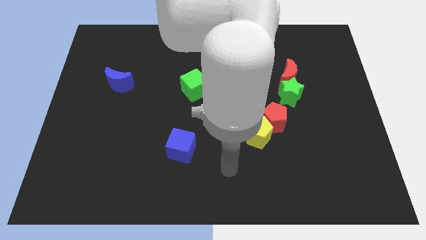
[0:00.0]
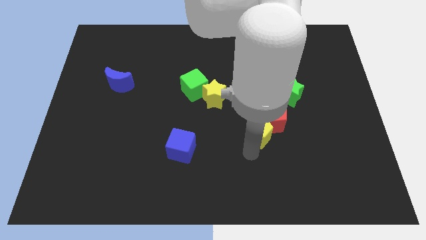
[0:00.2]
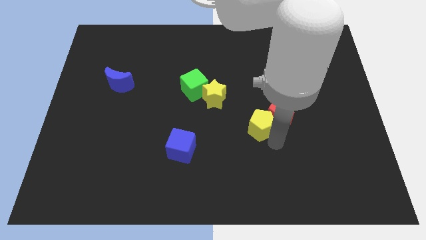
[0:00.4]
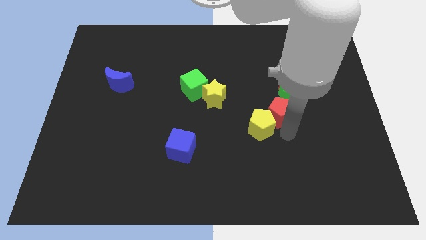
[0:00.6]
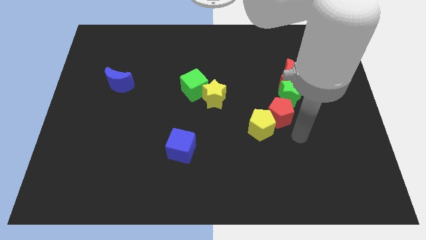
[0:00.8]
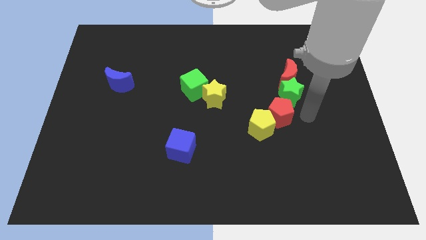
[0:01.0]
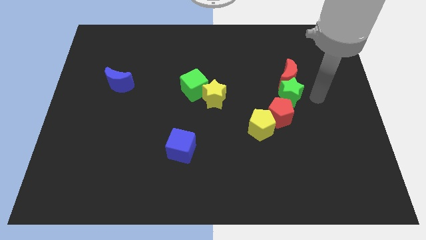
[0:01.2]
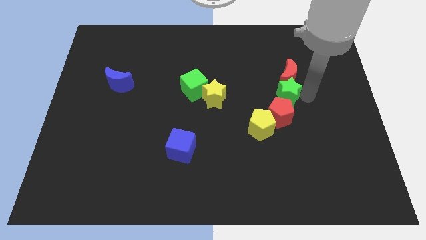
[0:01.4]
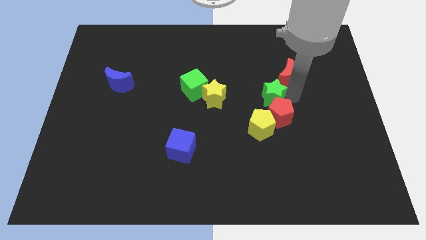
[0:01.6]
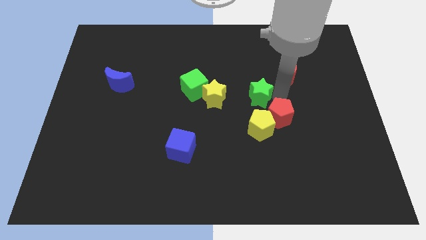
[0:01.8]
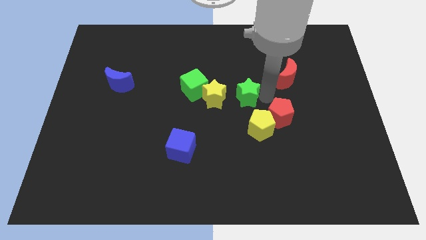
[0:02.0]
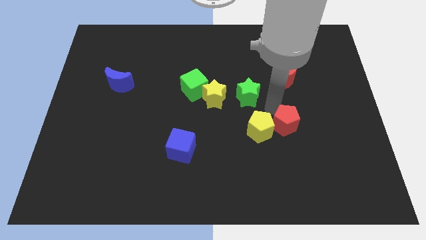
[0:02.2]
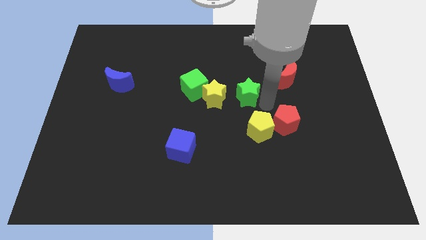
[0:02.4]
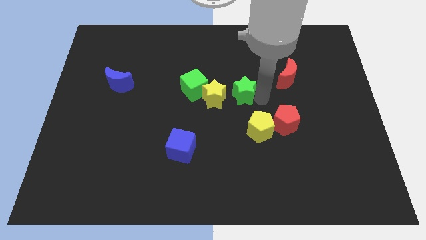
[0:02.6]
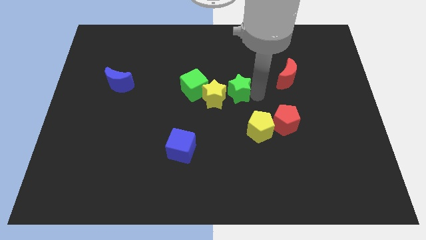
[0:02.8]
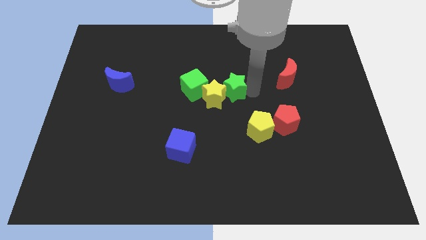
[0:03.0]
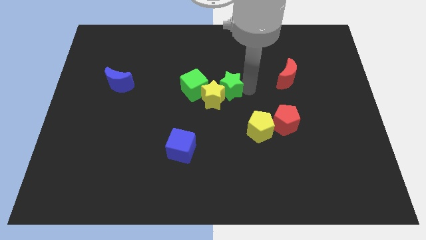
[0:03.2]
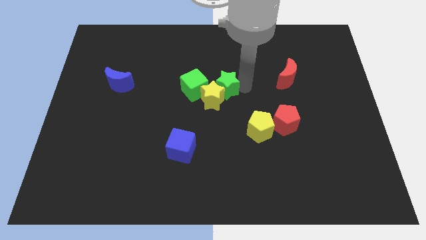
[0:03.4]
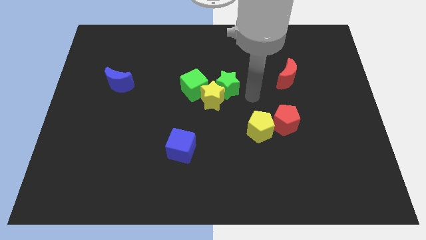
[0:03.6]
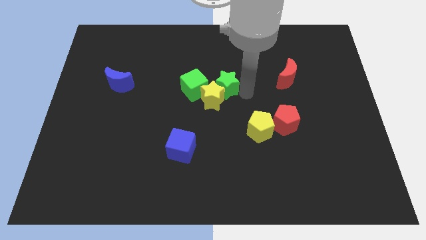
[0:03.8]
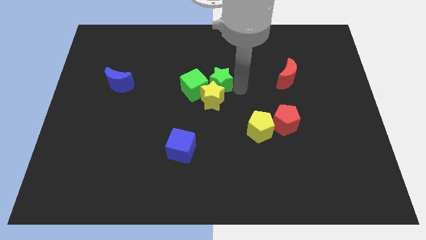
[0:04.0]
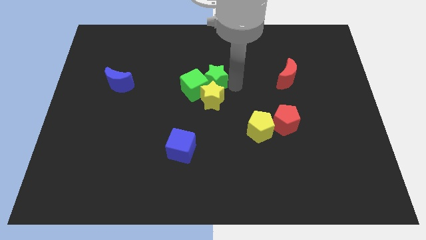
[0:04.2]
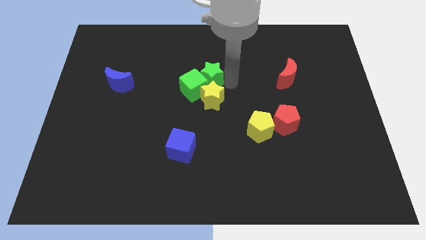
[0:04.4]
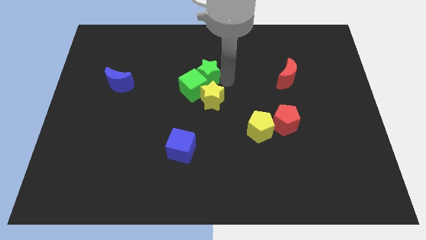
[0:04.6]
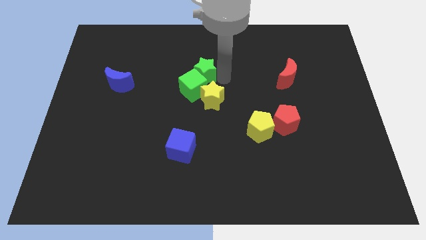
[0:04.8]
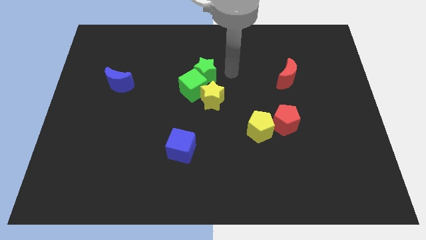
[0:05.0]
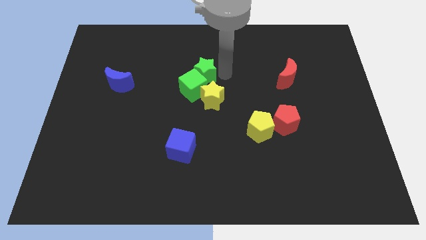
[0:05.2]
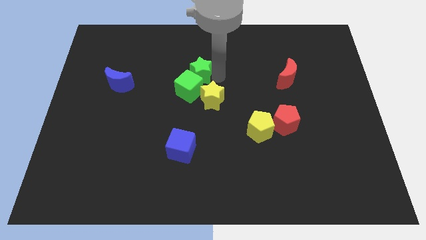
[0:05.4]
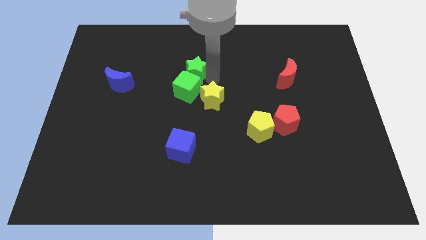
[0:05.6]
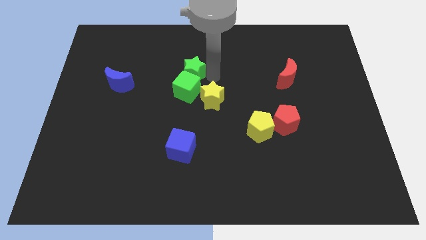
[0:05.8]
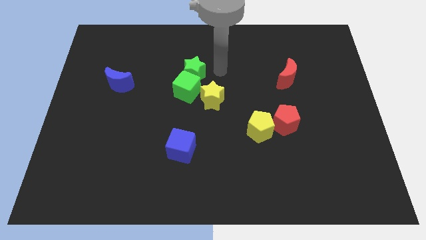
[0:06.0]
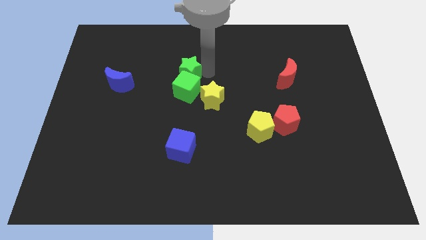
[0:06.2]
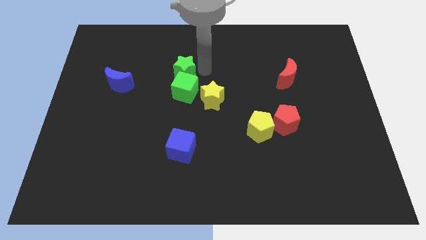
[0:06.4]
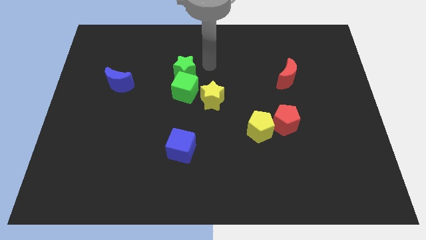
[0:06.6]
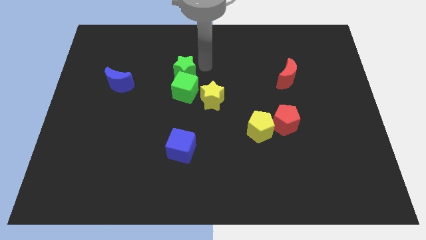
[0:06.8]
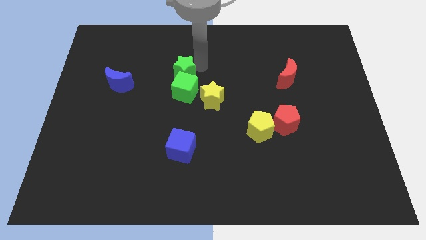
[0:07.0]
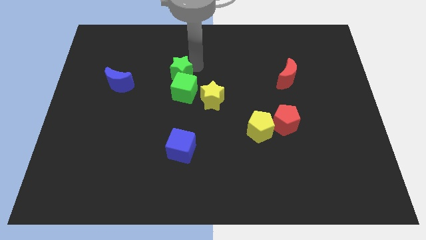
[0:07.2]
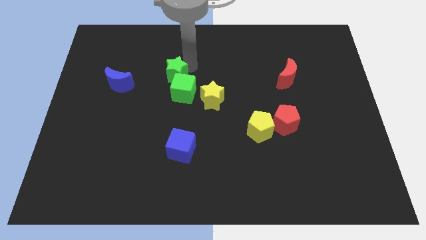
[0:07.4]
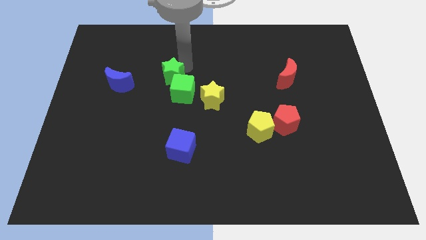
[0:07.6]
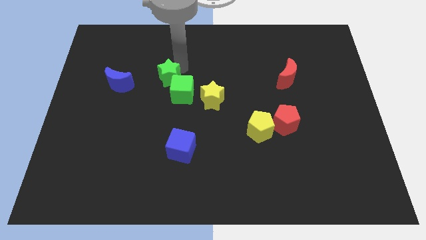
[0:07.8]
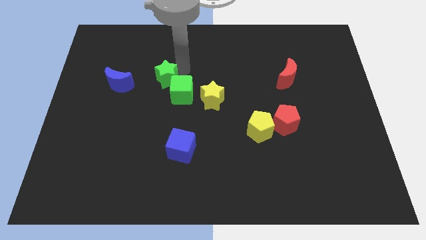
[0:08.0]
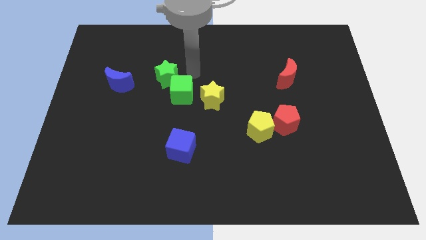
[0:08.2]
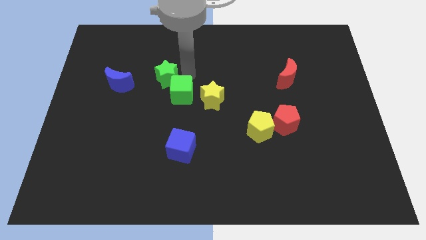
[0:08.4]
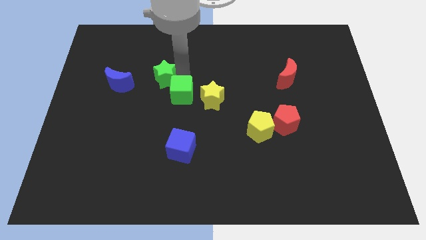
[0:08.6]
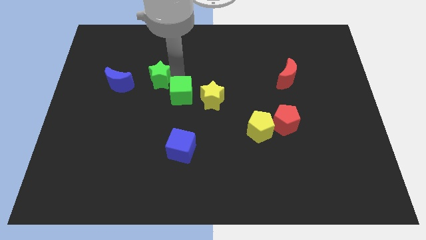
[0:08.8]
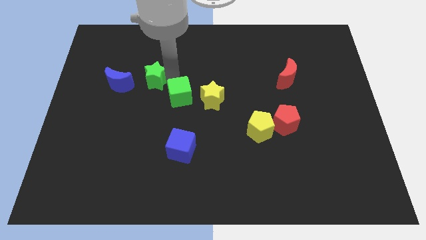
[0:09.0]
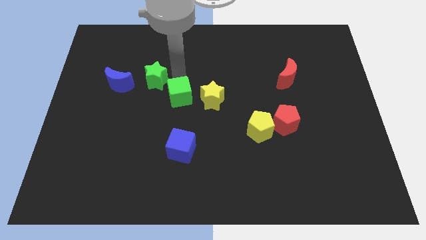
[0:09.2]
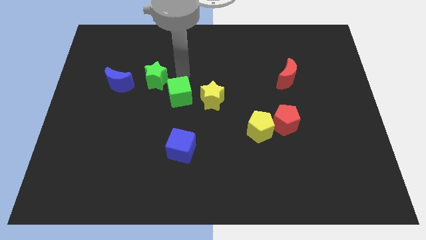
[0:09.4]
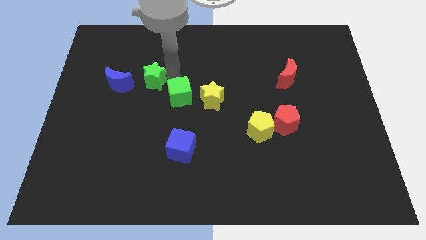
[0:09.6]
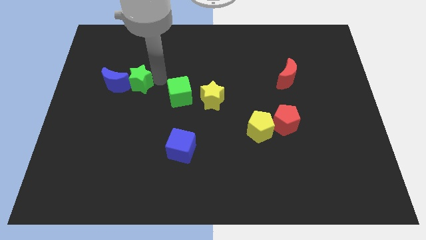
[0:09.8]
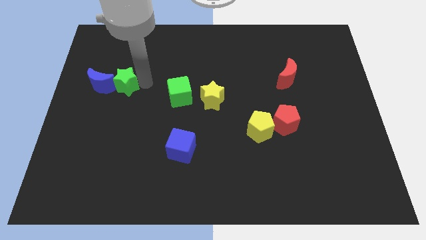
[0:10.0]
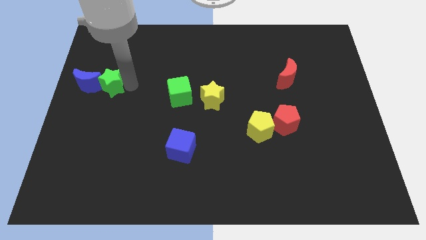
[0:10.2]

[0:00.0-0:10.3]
move the green star towards the blue moon

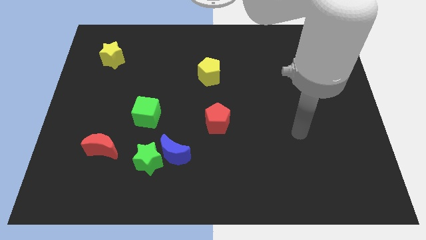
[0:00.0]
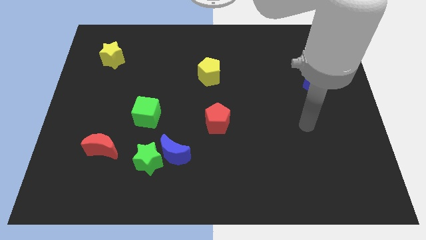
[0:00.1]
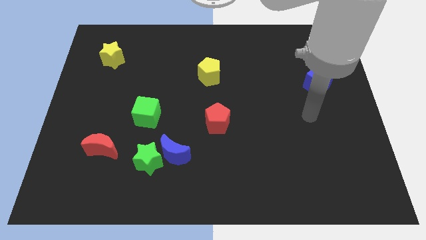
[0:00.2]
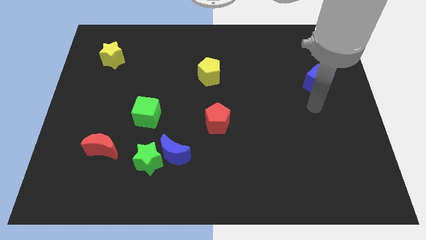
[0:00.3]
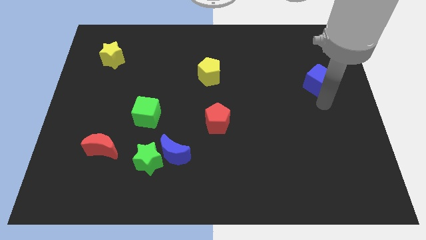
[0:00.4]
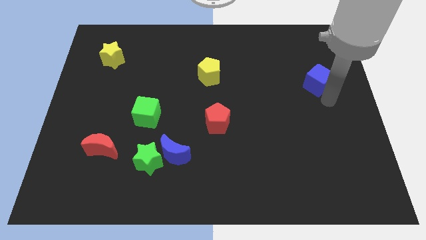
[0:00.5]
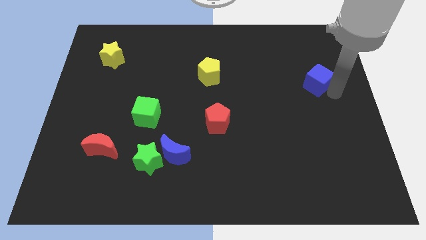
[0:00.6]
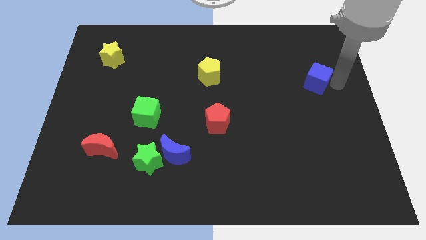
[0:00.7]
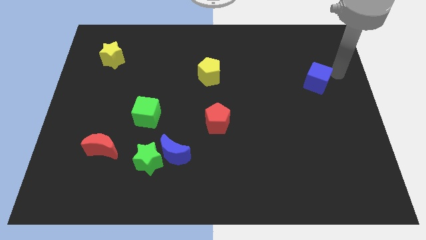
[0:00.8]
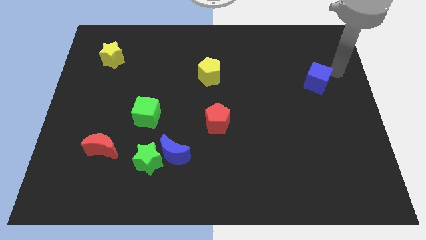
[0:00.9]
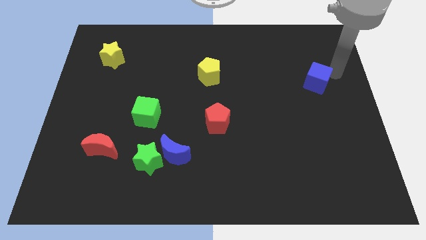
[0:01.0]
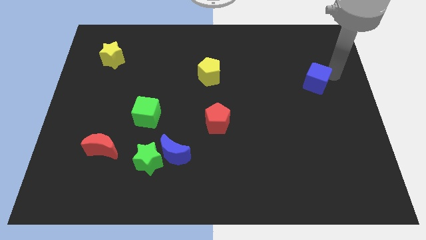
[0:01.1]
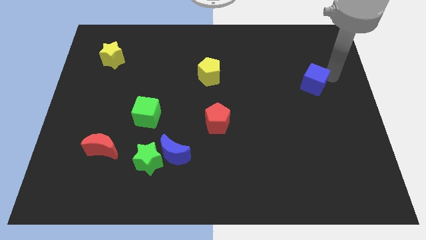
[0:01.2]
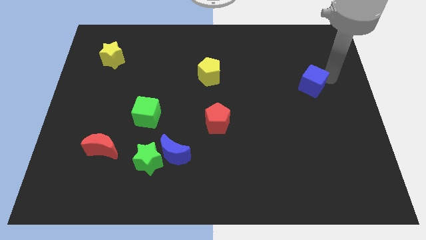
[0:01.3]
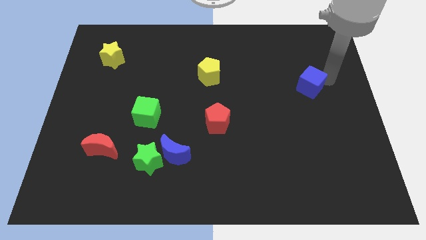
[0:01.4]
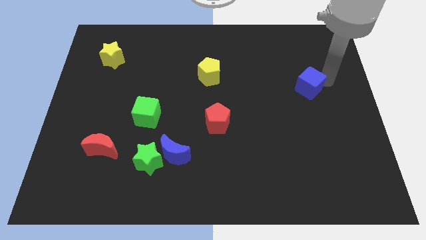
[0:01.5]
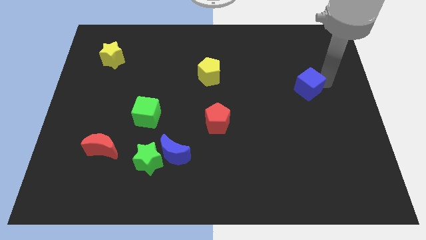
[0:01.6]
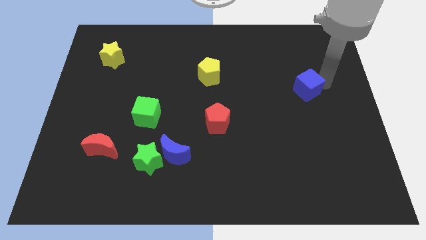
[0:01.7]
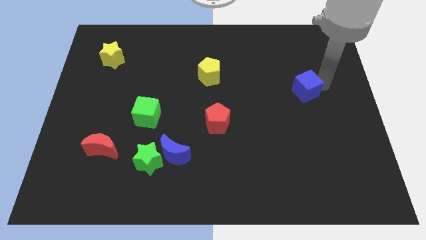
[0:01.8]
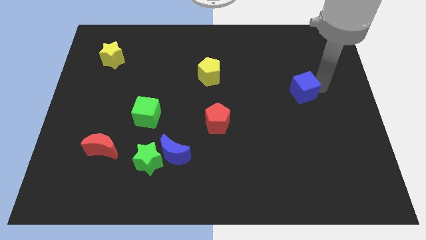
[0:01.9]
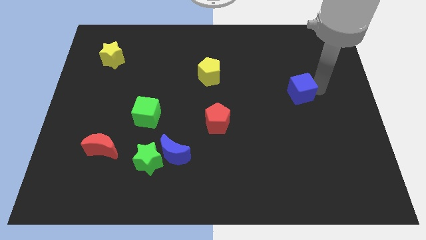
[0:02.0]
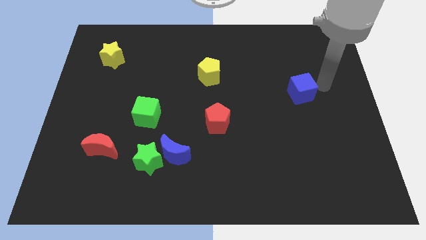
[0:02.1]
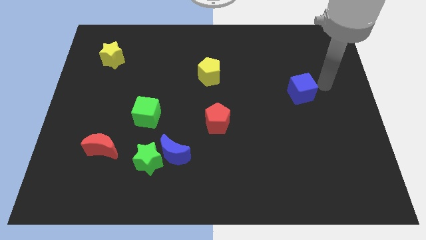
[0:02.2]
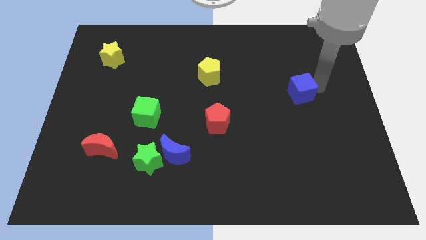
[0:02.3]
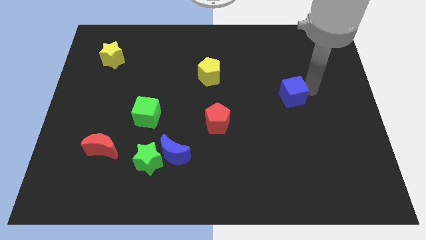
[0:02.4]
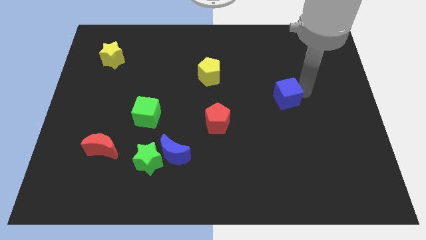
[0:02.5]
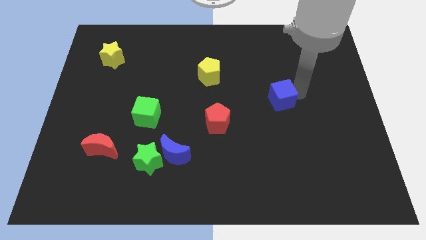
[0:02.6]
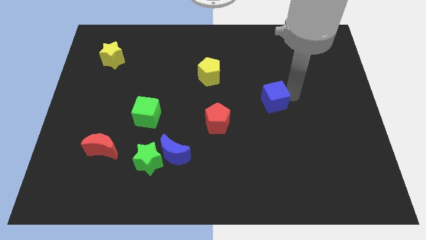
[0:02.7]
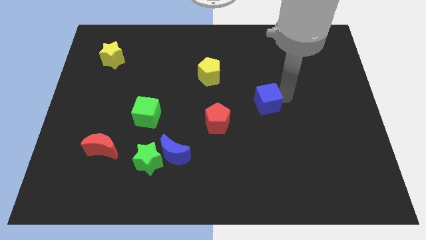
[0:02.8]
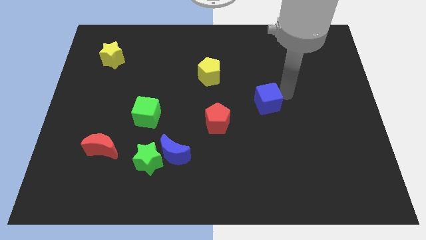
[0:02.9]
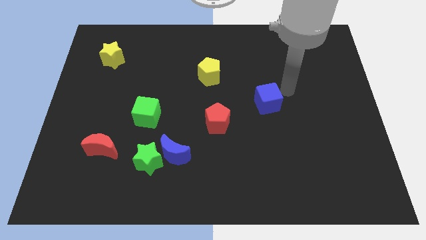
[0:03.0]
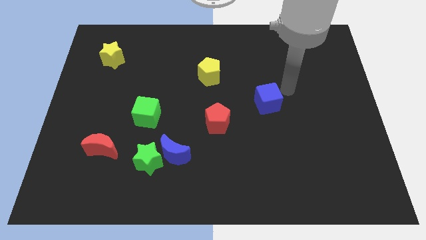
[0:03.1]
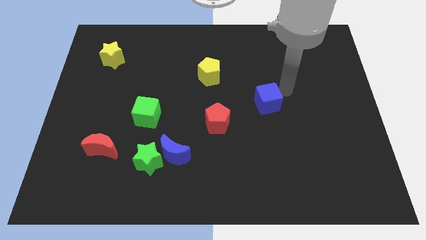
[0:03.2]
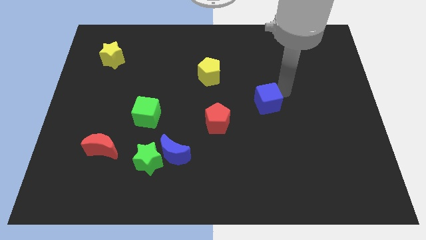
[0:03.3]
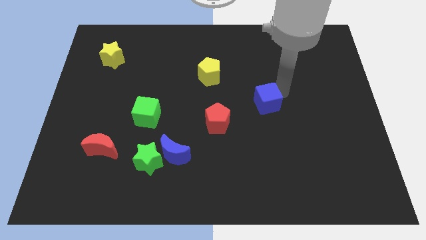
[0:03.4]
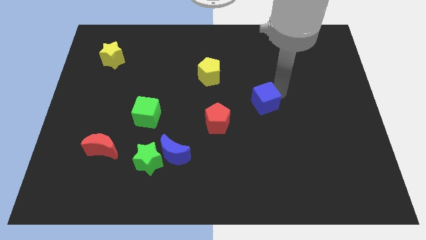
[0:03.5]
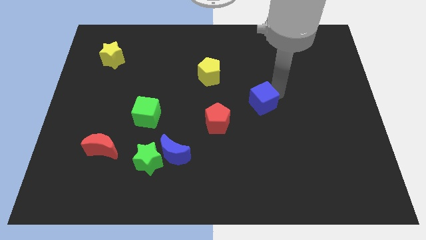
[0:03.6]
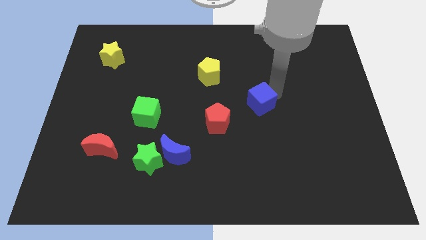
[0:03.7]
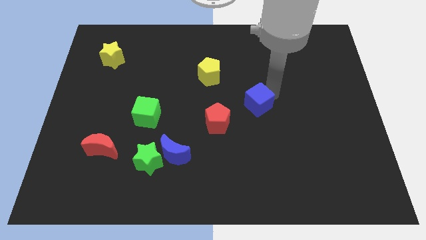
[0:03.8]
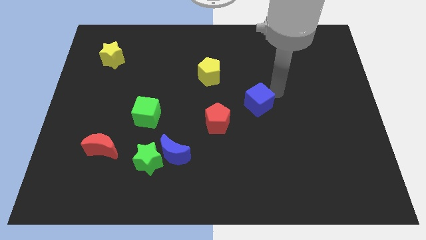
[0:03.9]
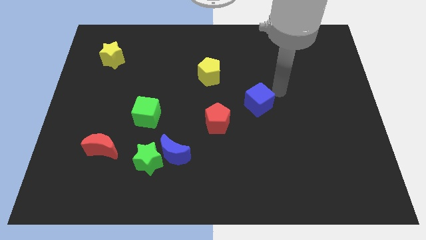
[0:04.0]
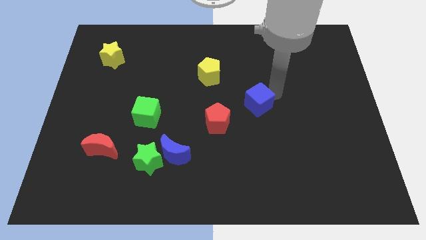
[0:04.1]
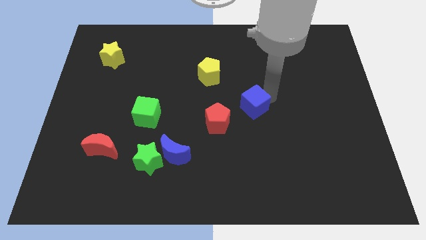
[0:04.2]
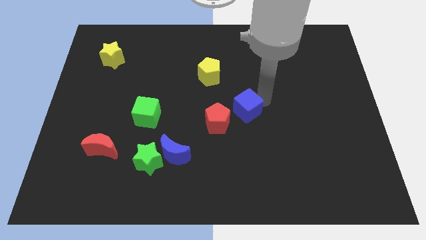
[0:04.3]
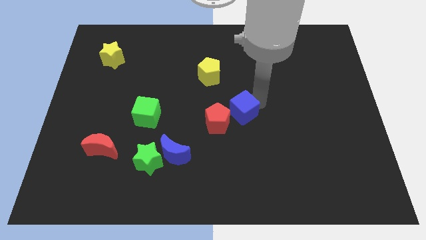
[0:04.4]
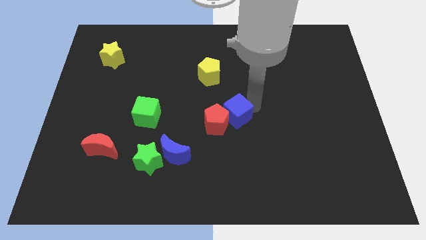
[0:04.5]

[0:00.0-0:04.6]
move the blue cube towards the red pentagon
